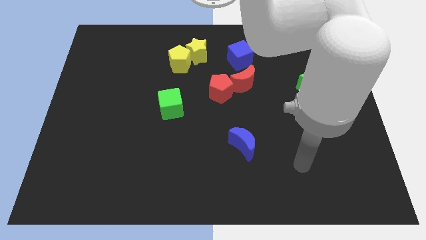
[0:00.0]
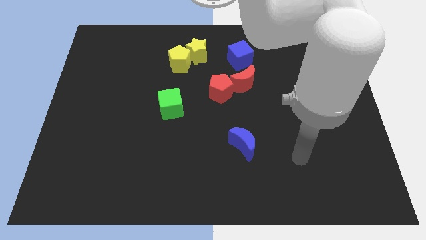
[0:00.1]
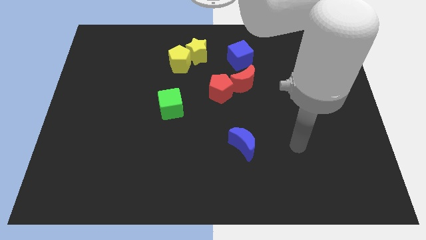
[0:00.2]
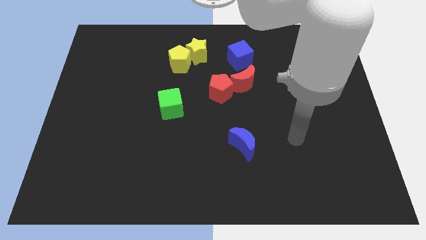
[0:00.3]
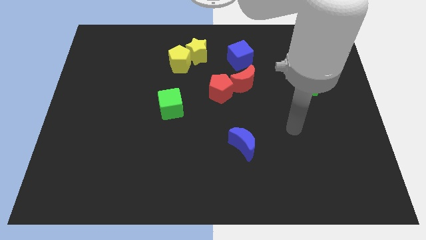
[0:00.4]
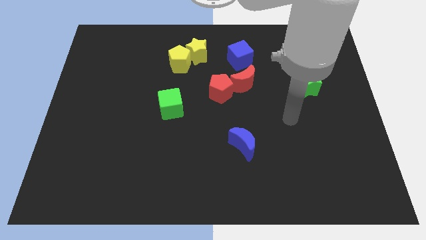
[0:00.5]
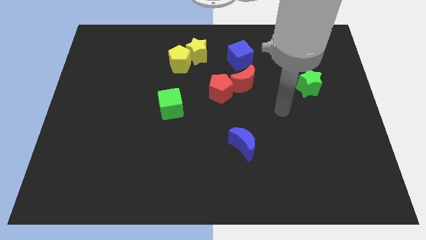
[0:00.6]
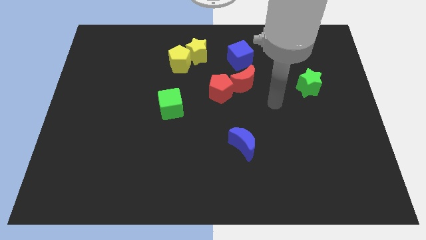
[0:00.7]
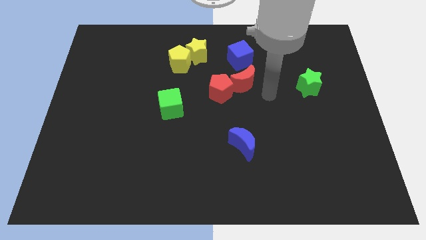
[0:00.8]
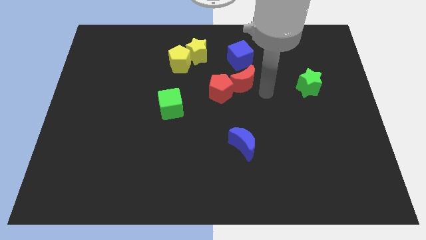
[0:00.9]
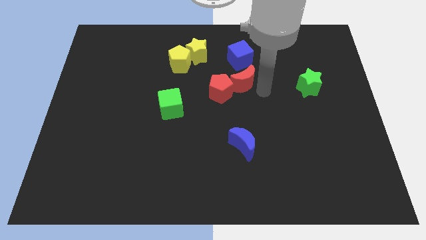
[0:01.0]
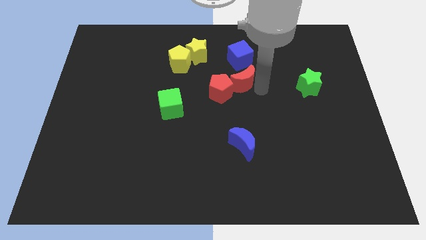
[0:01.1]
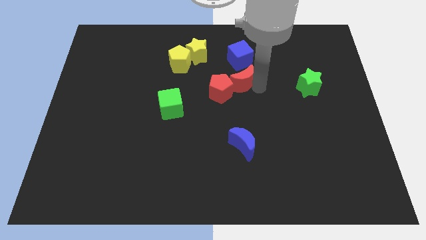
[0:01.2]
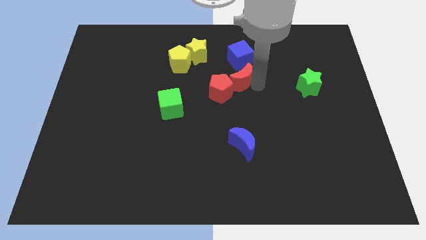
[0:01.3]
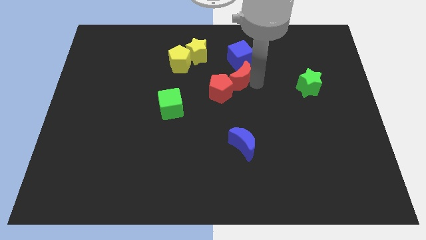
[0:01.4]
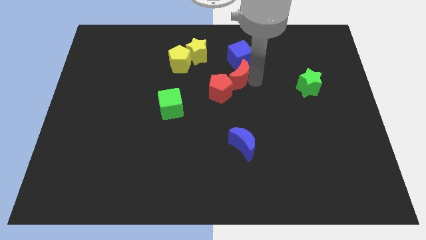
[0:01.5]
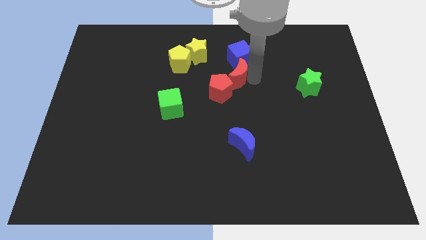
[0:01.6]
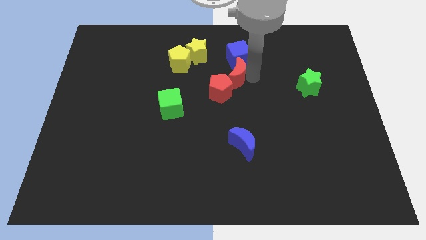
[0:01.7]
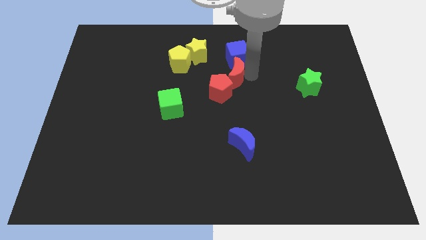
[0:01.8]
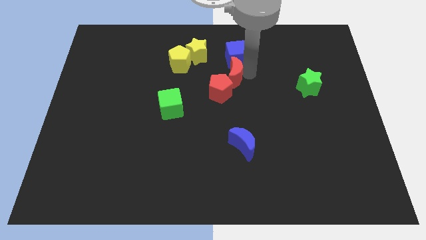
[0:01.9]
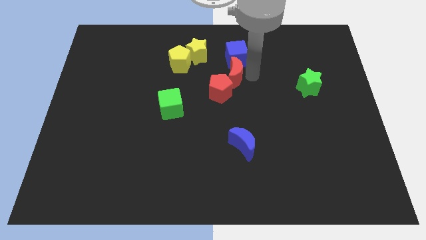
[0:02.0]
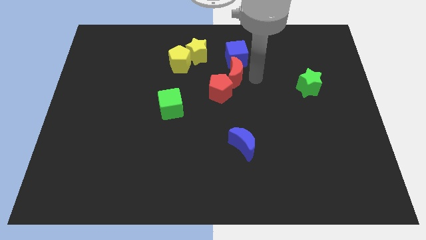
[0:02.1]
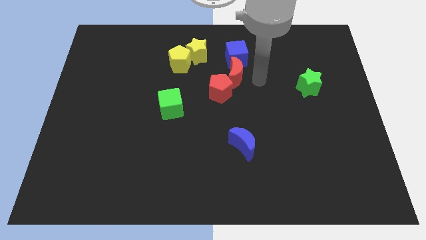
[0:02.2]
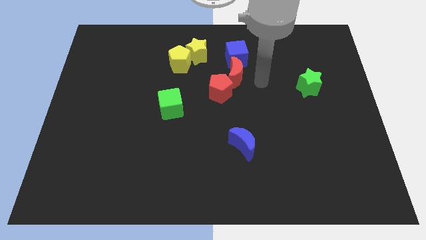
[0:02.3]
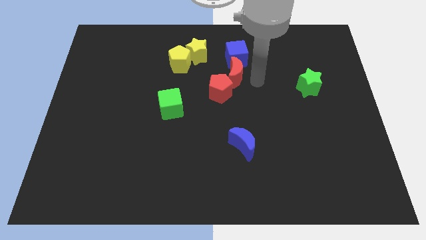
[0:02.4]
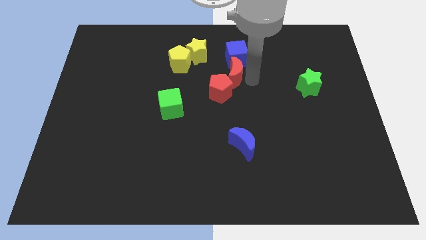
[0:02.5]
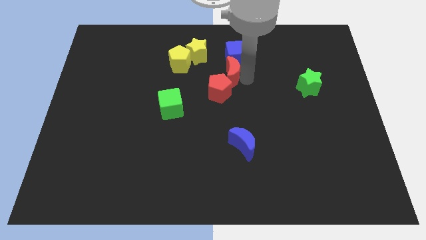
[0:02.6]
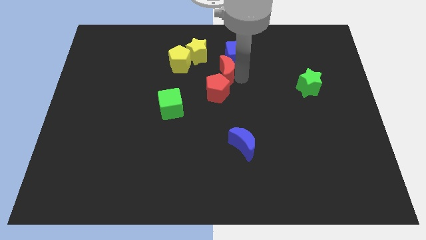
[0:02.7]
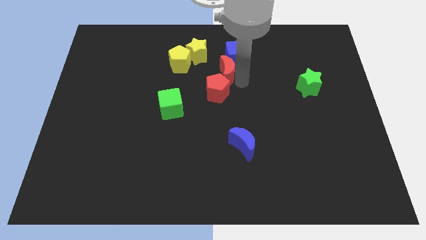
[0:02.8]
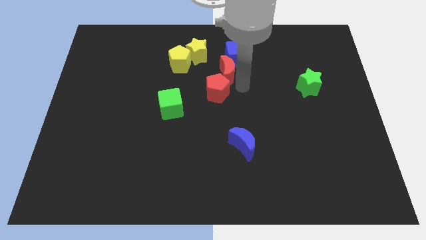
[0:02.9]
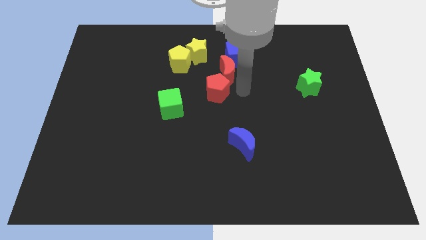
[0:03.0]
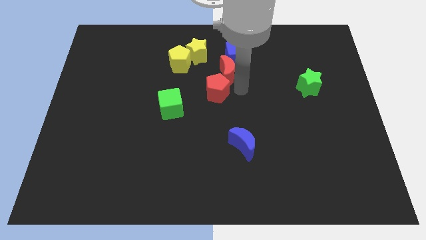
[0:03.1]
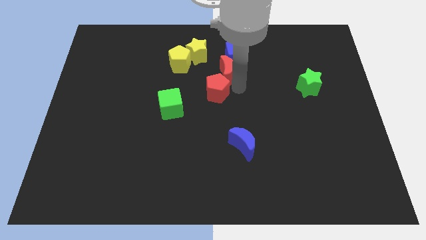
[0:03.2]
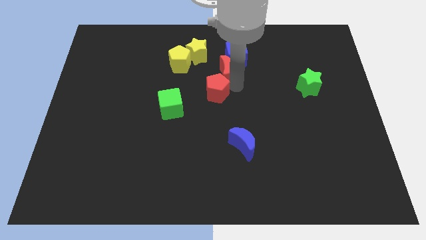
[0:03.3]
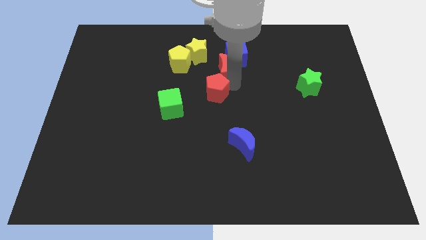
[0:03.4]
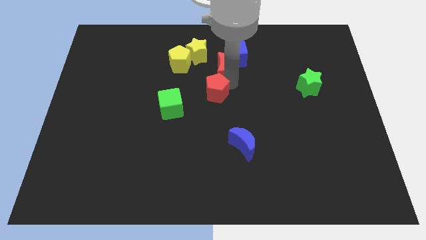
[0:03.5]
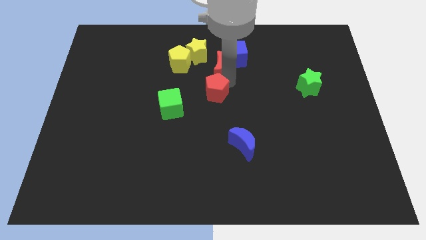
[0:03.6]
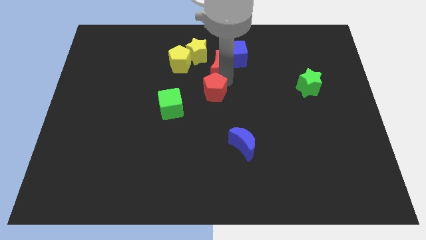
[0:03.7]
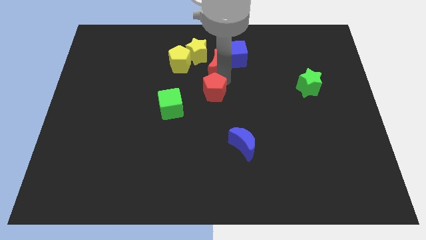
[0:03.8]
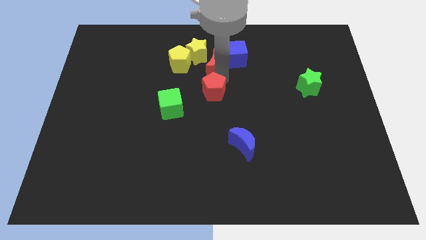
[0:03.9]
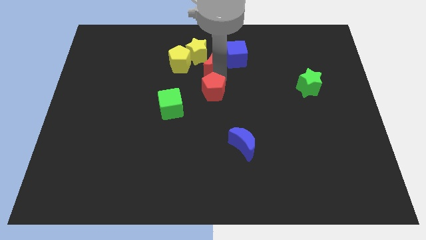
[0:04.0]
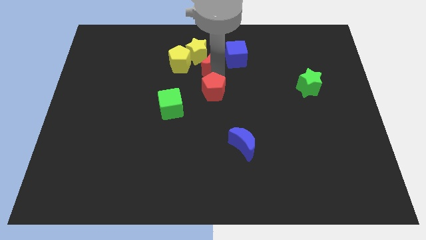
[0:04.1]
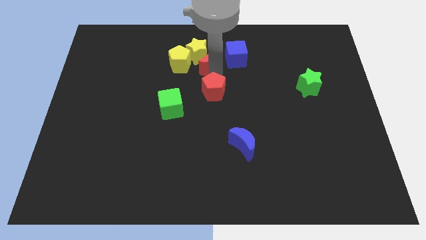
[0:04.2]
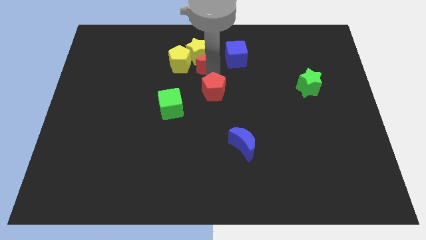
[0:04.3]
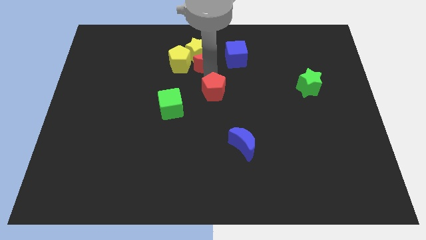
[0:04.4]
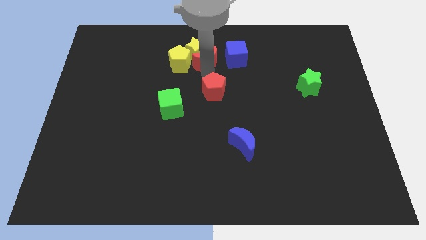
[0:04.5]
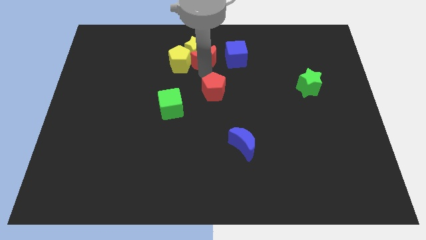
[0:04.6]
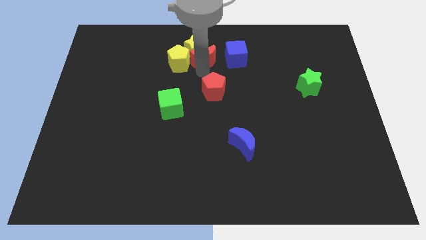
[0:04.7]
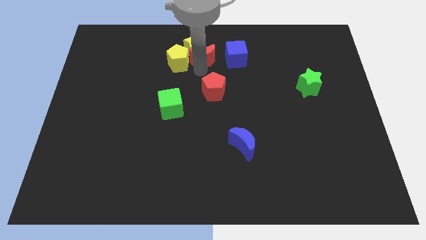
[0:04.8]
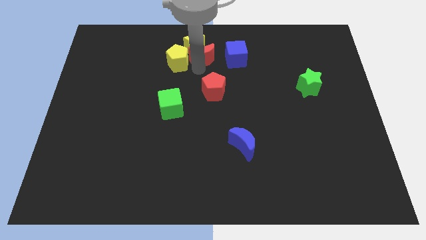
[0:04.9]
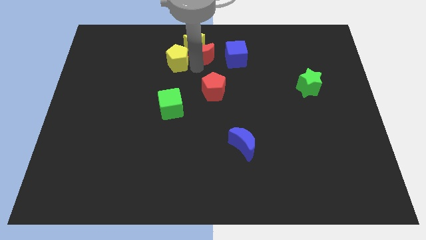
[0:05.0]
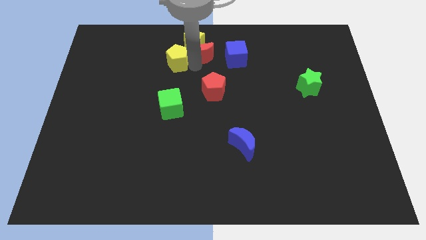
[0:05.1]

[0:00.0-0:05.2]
put the red moon to the top
